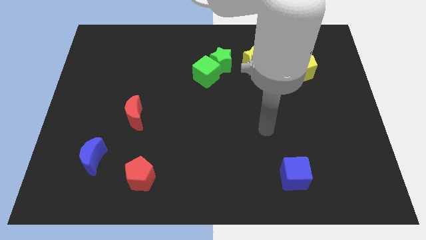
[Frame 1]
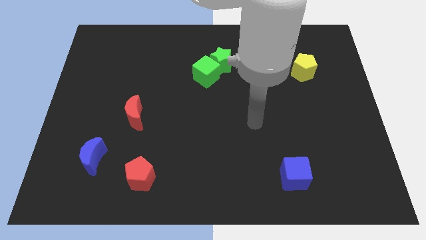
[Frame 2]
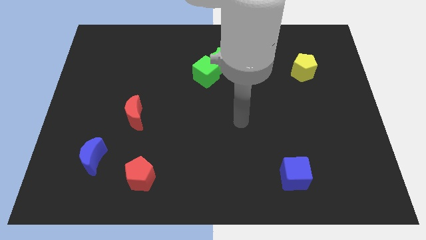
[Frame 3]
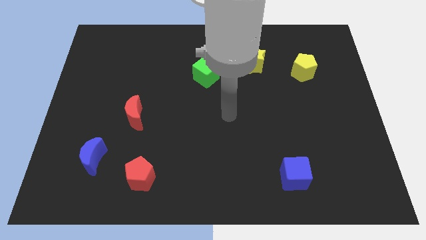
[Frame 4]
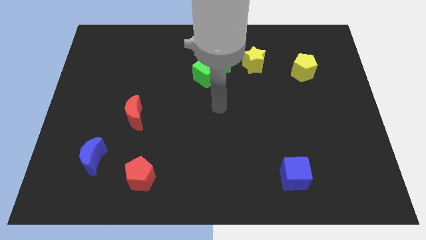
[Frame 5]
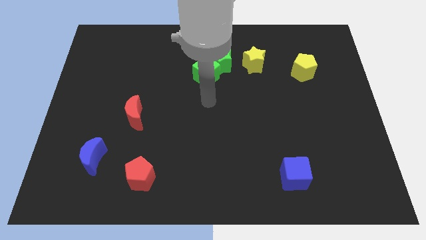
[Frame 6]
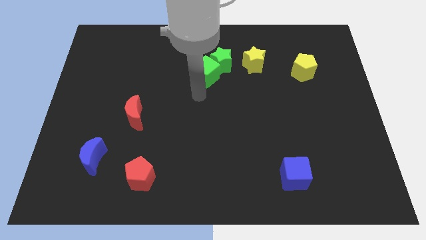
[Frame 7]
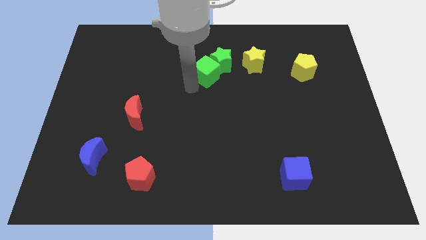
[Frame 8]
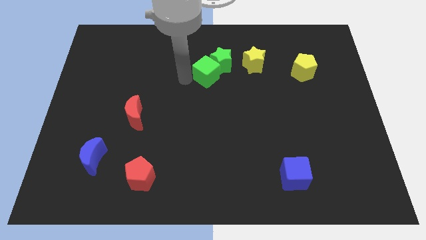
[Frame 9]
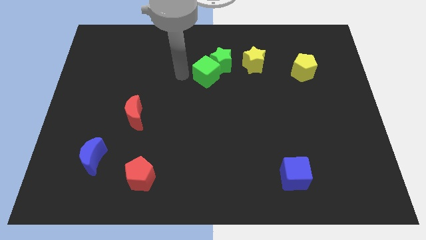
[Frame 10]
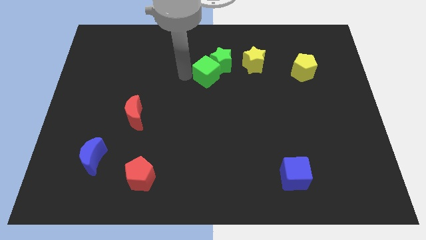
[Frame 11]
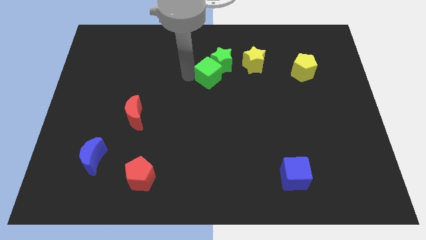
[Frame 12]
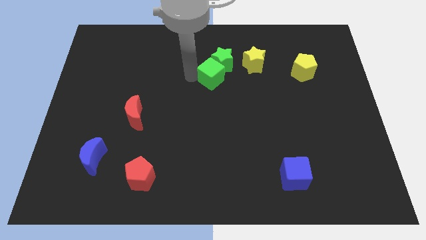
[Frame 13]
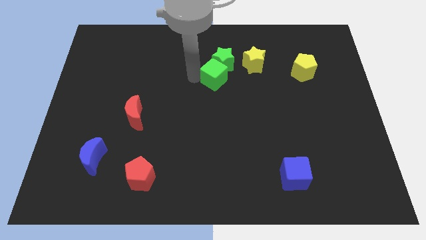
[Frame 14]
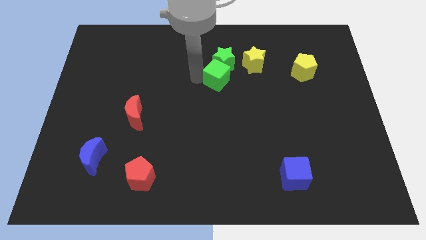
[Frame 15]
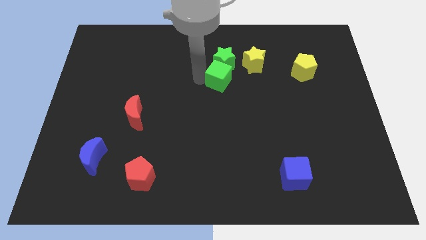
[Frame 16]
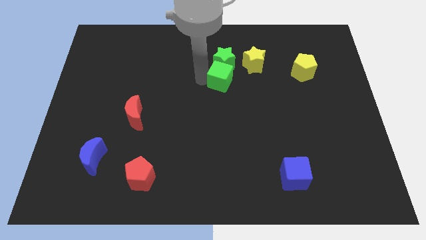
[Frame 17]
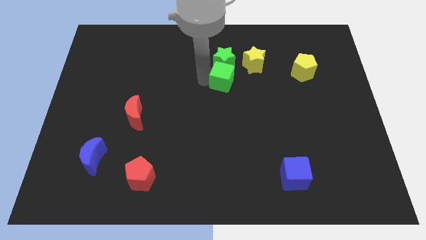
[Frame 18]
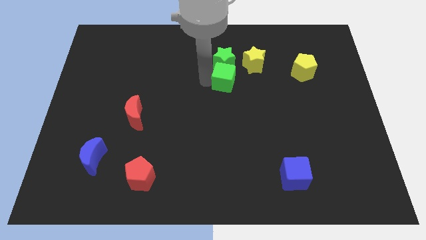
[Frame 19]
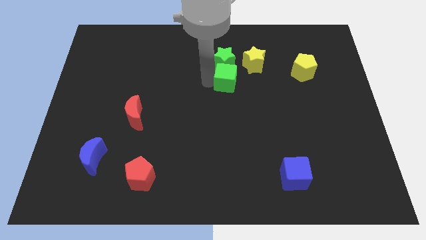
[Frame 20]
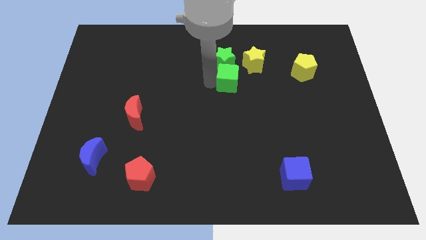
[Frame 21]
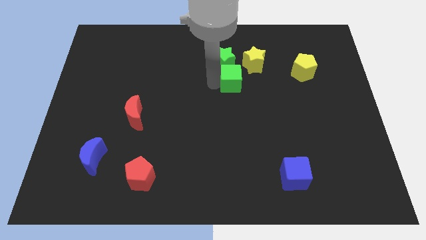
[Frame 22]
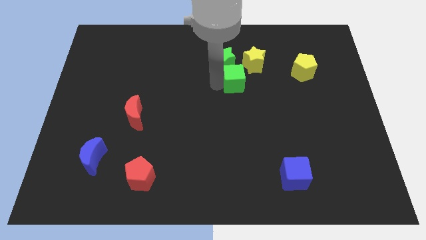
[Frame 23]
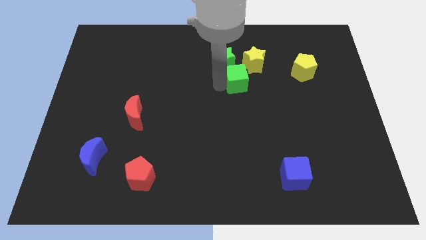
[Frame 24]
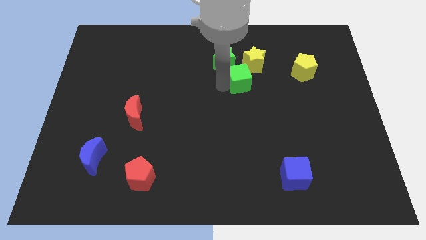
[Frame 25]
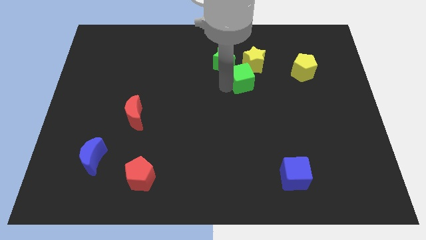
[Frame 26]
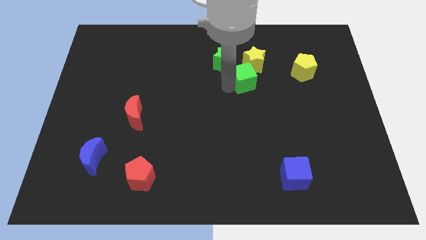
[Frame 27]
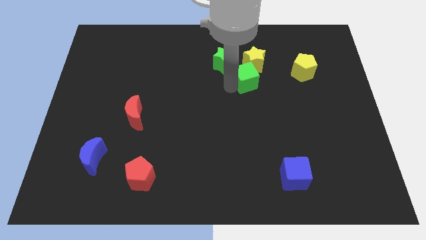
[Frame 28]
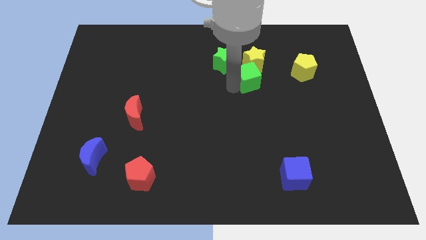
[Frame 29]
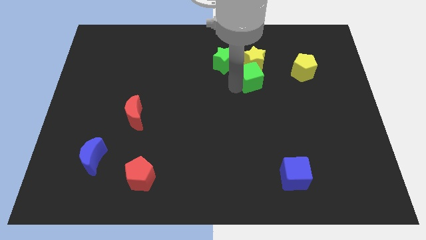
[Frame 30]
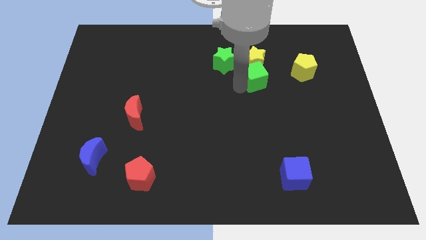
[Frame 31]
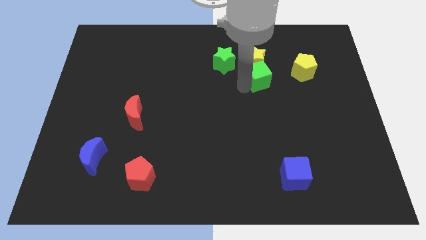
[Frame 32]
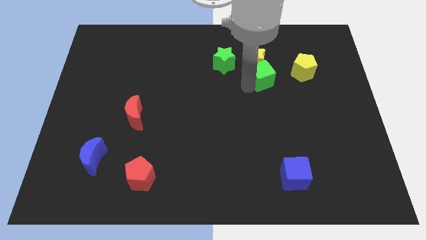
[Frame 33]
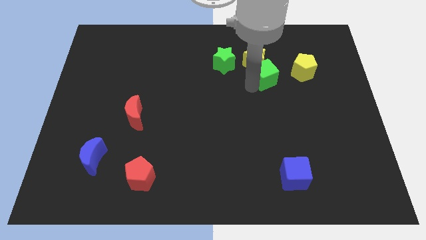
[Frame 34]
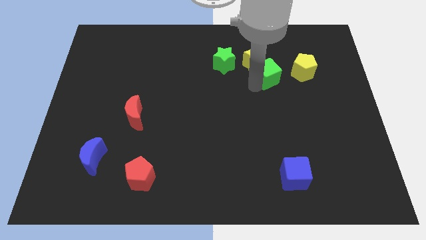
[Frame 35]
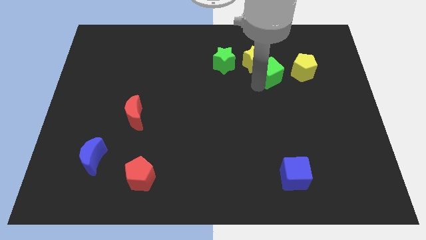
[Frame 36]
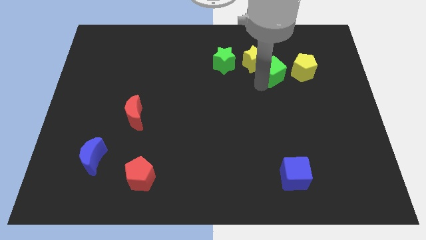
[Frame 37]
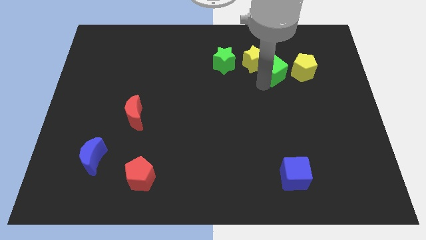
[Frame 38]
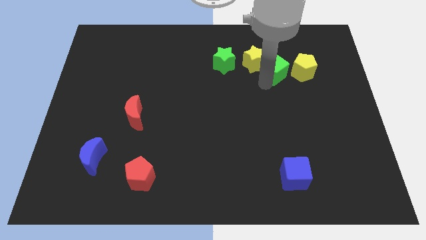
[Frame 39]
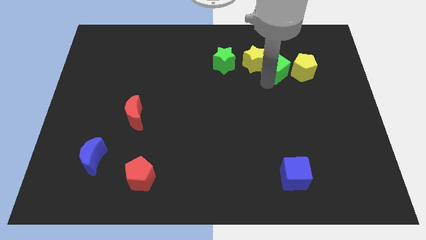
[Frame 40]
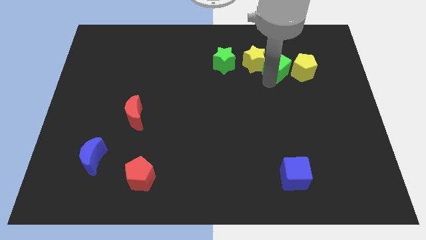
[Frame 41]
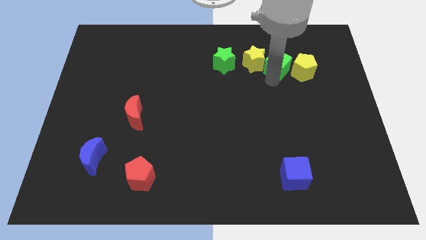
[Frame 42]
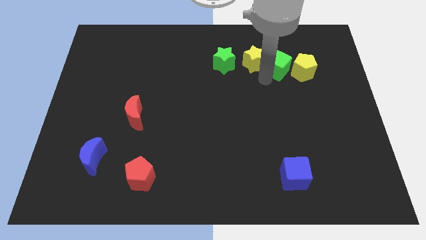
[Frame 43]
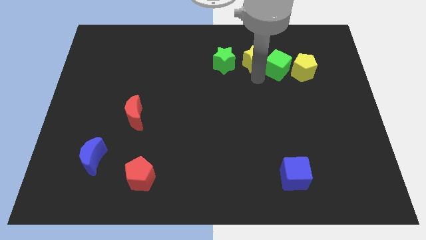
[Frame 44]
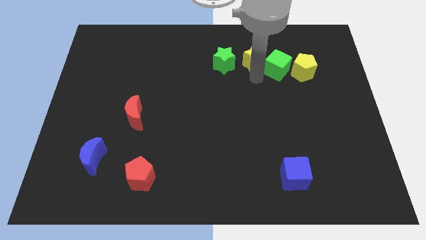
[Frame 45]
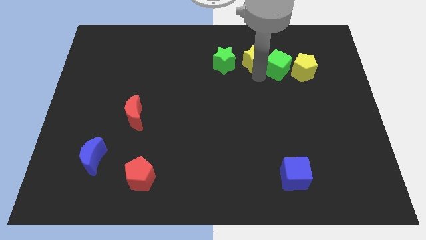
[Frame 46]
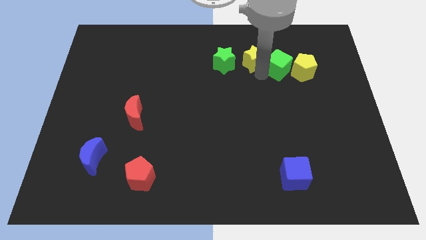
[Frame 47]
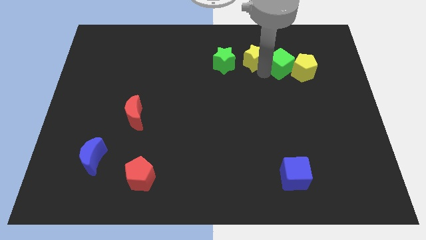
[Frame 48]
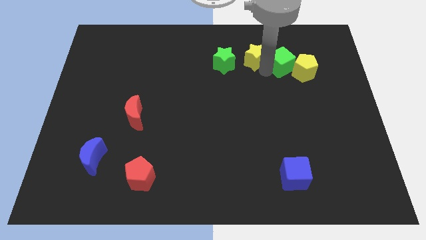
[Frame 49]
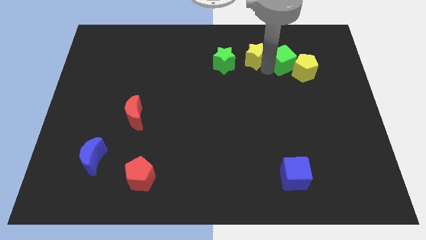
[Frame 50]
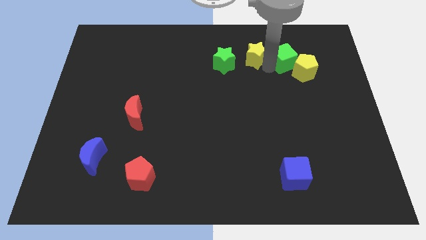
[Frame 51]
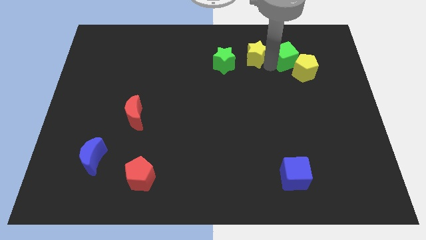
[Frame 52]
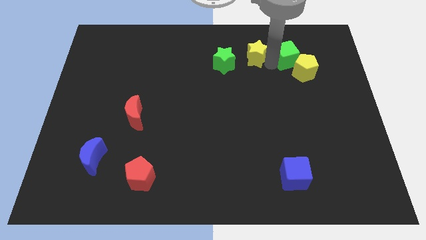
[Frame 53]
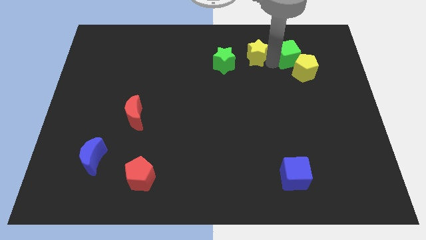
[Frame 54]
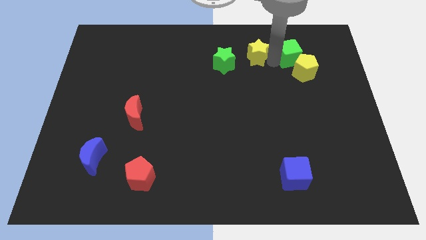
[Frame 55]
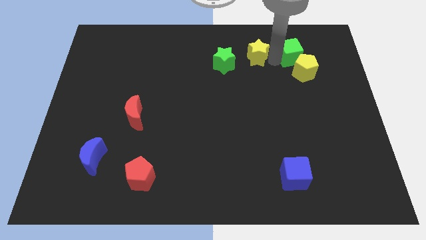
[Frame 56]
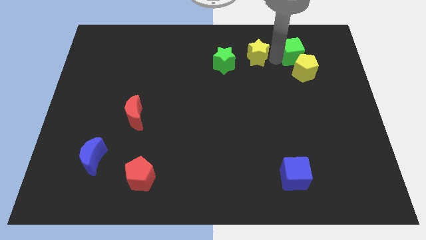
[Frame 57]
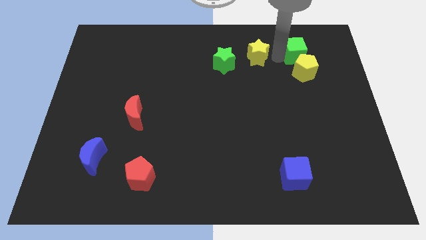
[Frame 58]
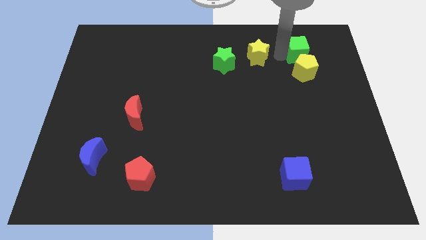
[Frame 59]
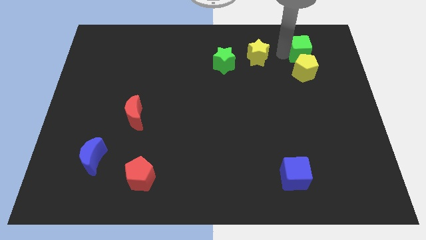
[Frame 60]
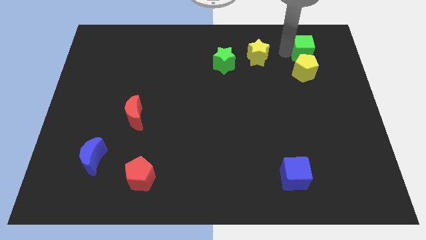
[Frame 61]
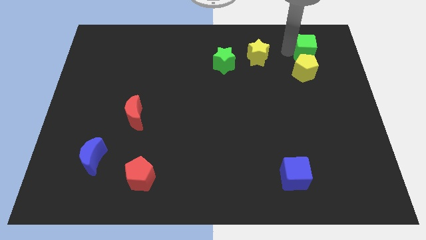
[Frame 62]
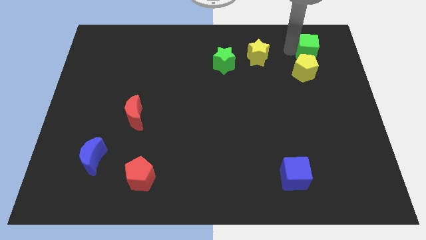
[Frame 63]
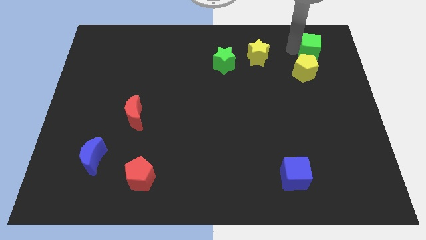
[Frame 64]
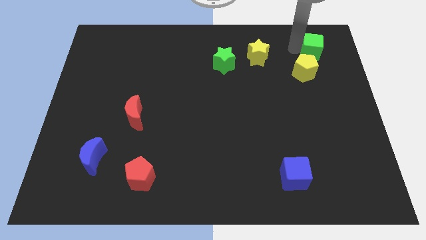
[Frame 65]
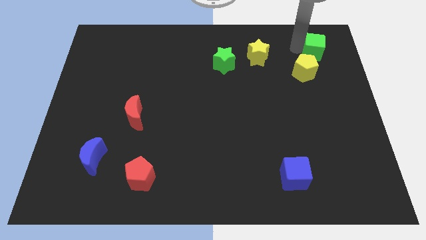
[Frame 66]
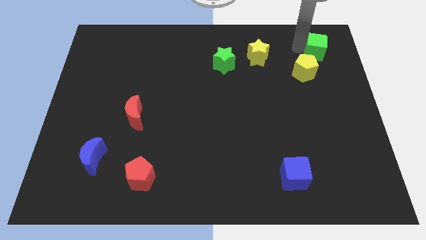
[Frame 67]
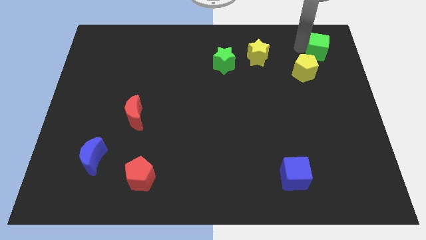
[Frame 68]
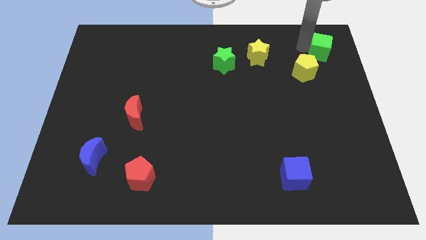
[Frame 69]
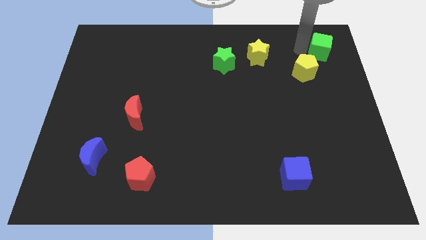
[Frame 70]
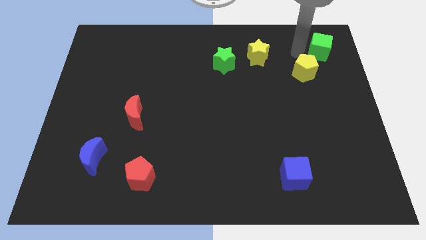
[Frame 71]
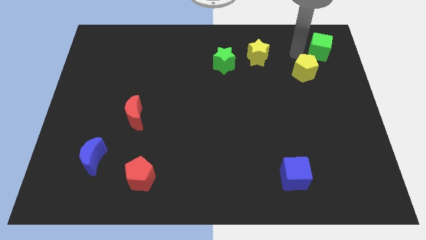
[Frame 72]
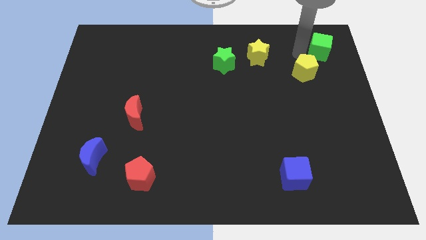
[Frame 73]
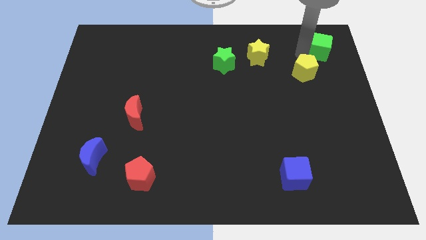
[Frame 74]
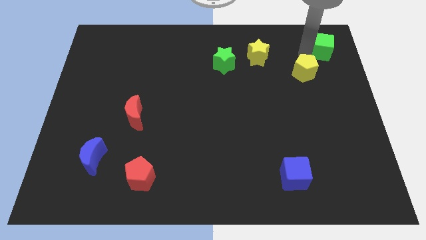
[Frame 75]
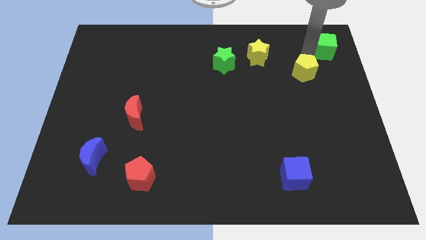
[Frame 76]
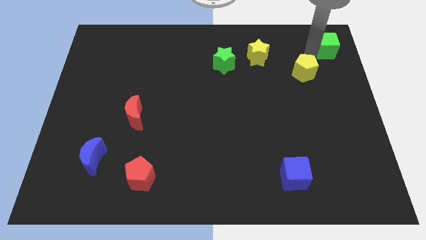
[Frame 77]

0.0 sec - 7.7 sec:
move the green cube to the top right corner

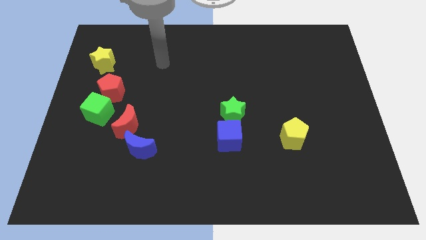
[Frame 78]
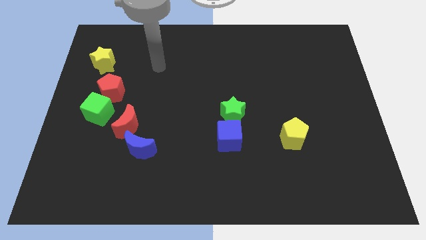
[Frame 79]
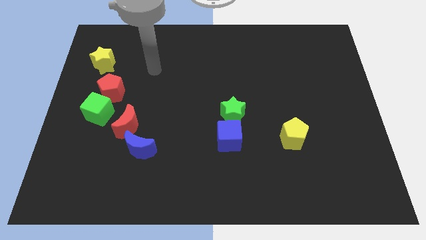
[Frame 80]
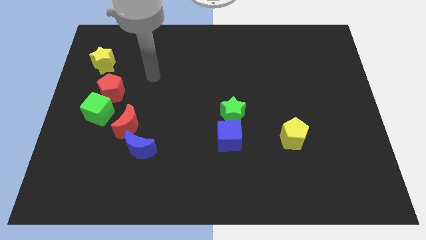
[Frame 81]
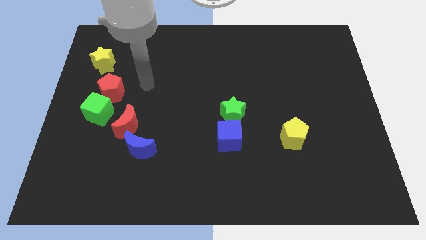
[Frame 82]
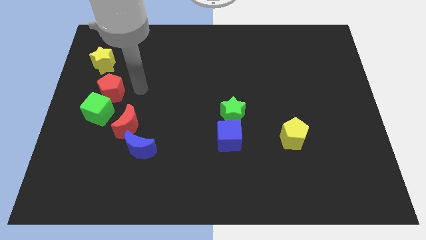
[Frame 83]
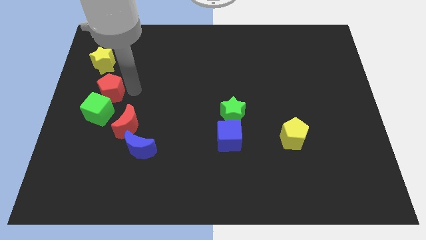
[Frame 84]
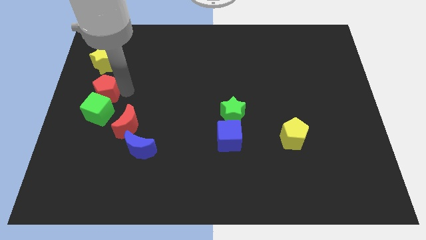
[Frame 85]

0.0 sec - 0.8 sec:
move the red pentagon to the left side of the board
